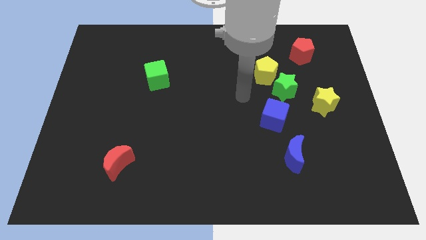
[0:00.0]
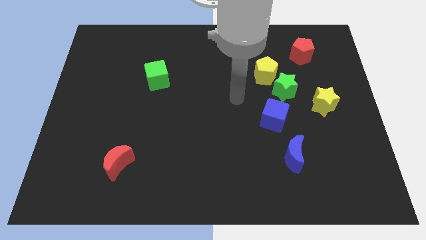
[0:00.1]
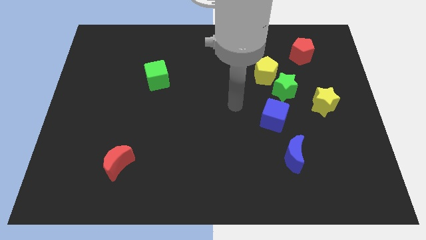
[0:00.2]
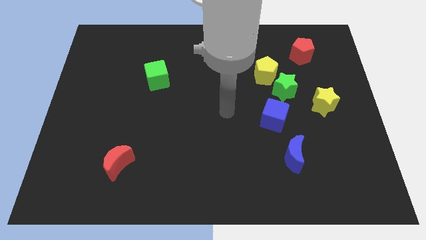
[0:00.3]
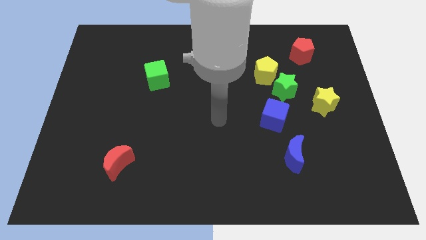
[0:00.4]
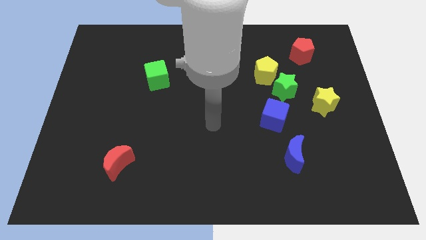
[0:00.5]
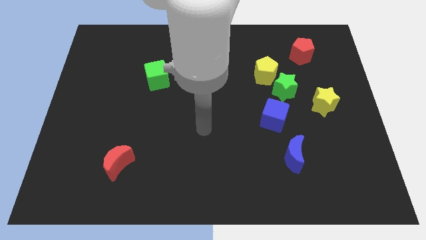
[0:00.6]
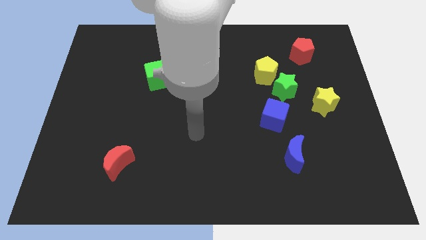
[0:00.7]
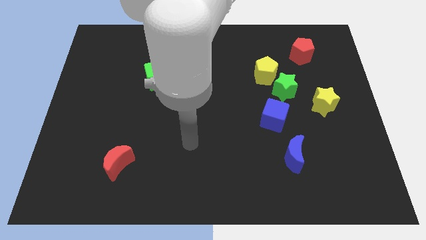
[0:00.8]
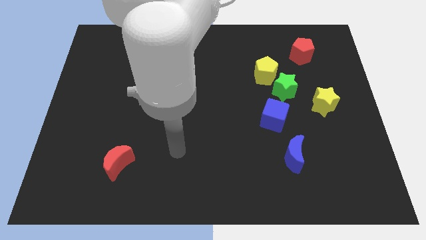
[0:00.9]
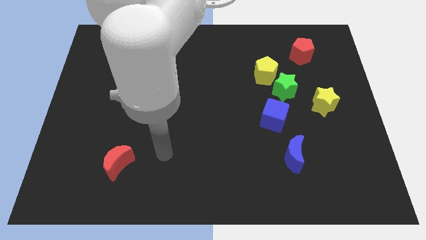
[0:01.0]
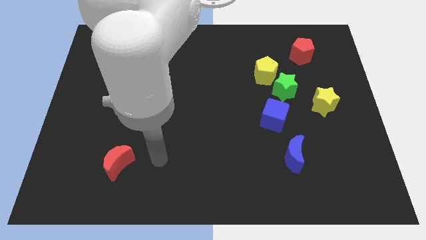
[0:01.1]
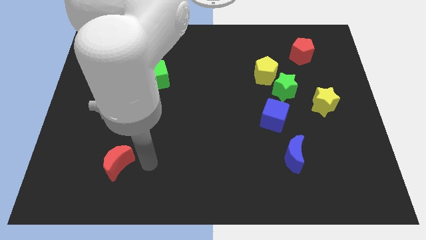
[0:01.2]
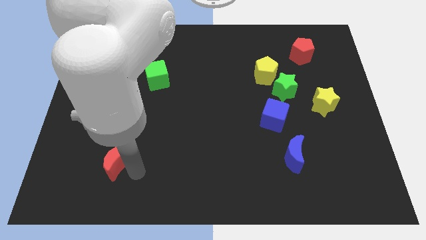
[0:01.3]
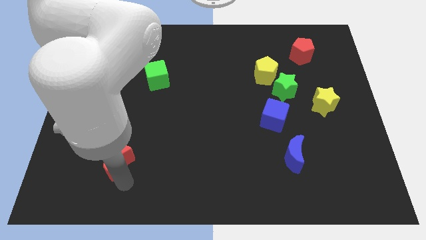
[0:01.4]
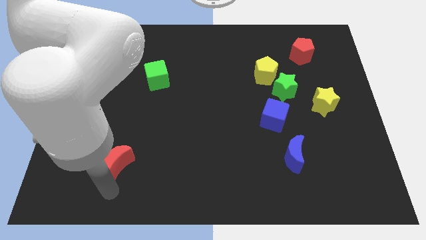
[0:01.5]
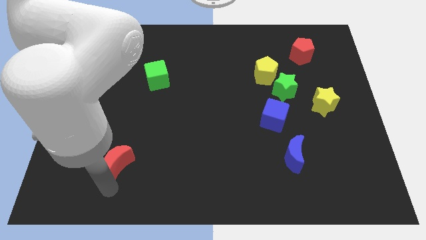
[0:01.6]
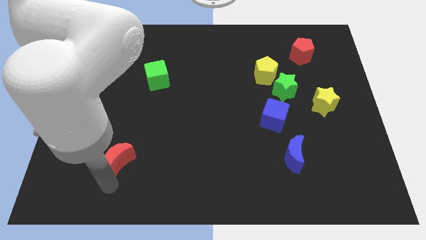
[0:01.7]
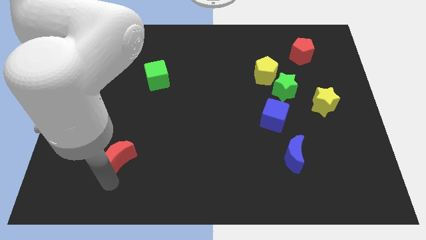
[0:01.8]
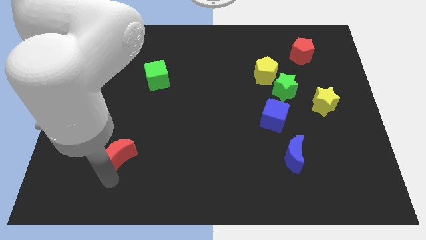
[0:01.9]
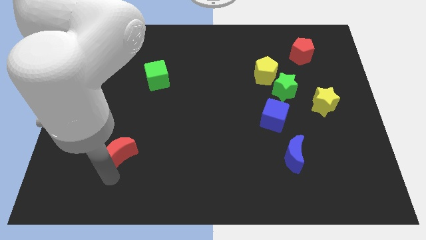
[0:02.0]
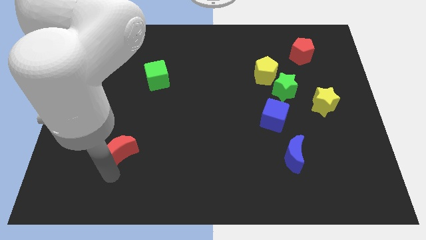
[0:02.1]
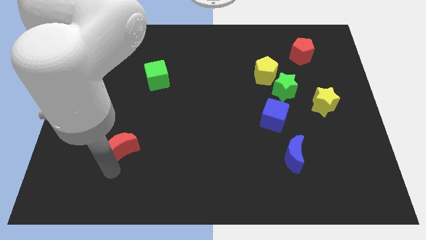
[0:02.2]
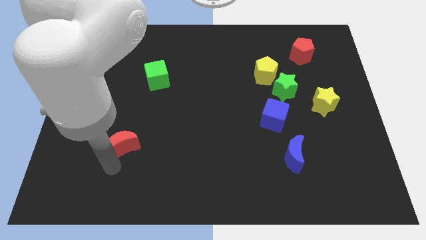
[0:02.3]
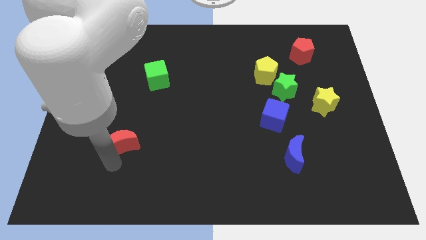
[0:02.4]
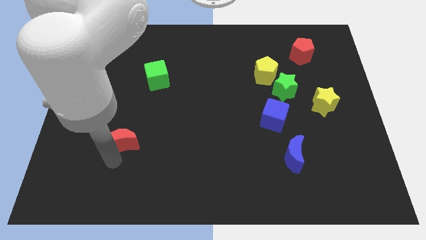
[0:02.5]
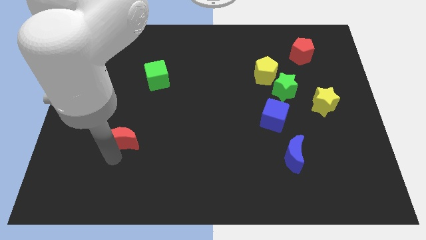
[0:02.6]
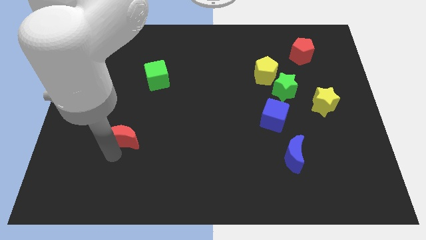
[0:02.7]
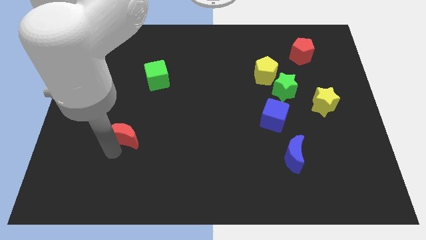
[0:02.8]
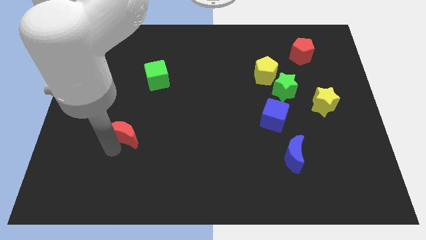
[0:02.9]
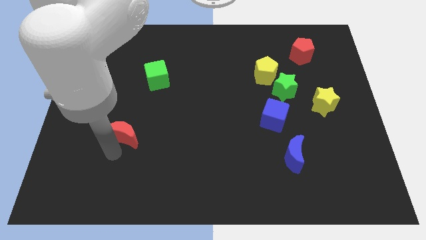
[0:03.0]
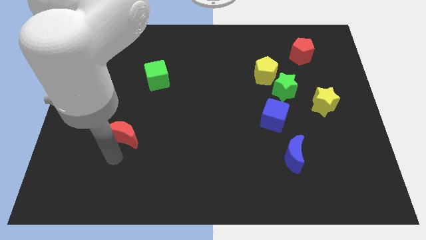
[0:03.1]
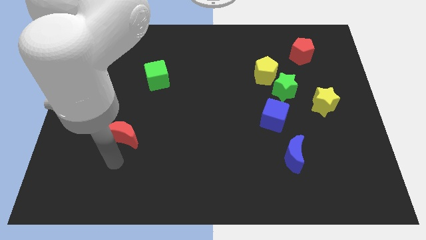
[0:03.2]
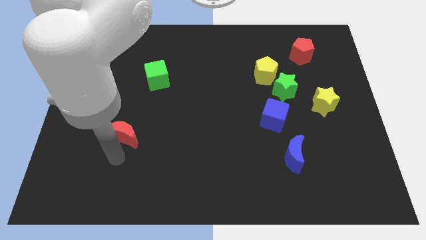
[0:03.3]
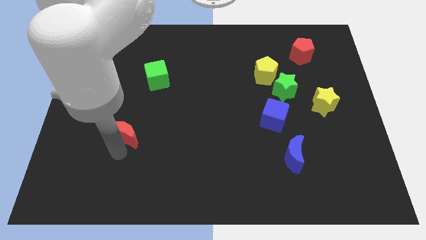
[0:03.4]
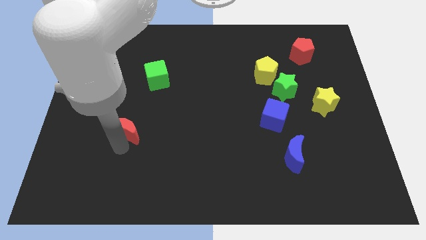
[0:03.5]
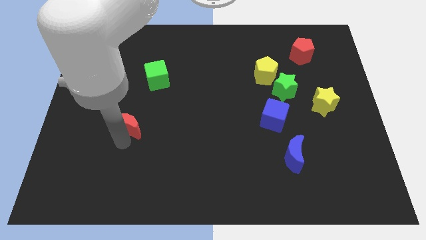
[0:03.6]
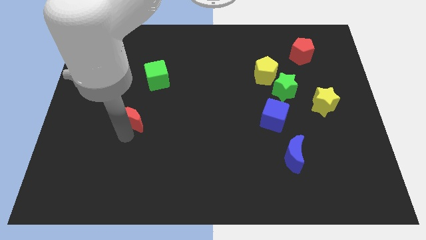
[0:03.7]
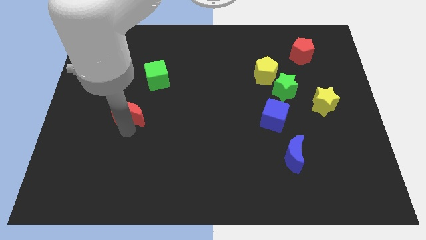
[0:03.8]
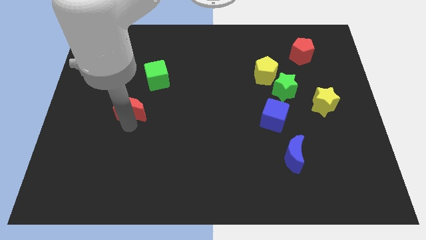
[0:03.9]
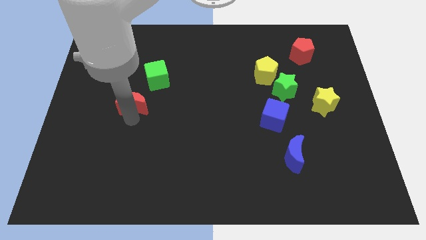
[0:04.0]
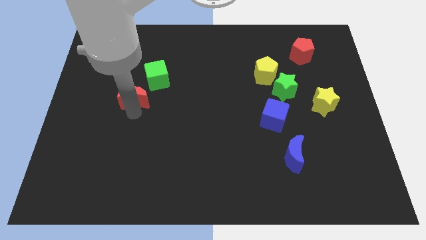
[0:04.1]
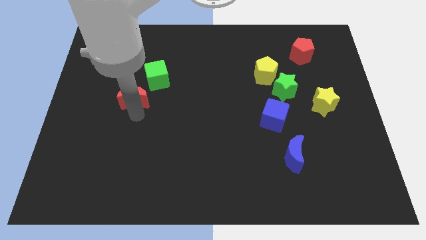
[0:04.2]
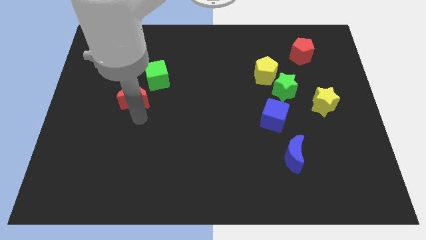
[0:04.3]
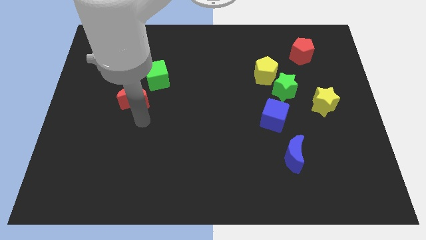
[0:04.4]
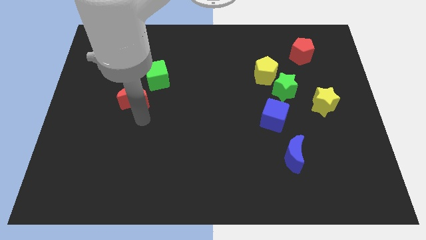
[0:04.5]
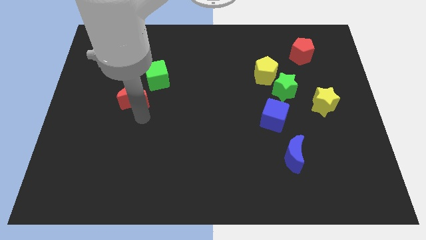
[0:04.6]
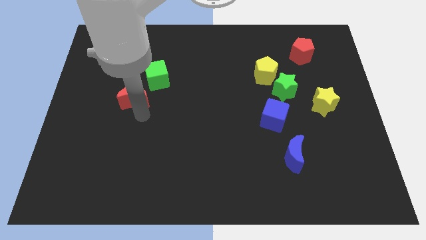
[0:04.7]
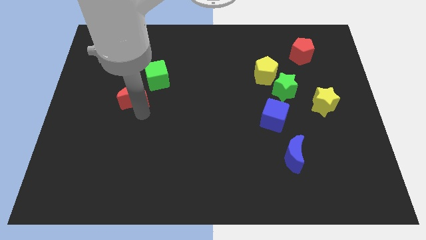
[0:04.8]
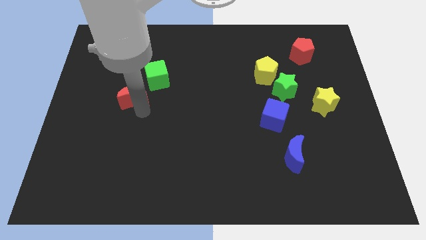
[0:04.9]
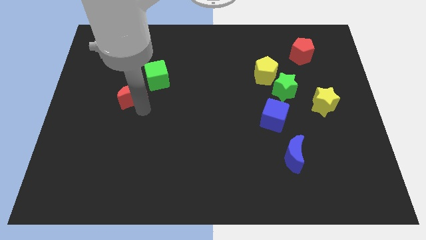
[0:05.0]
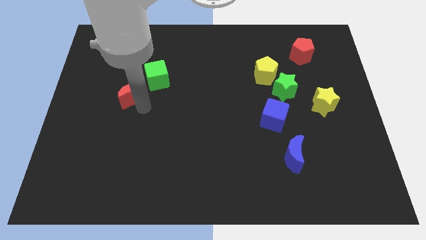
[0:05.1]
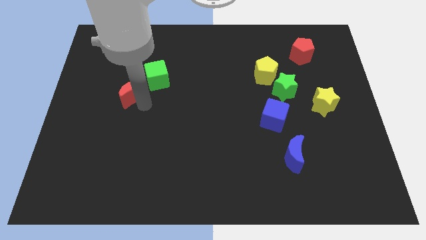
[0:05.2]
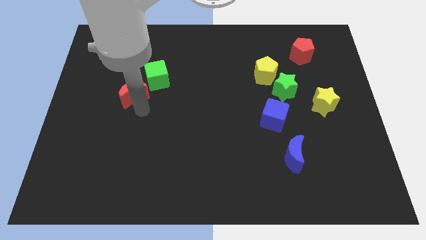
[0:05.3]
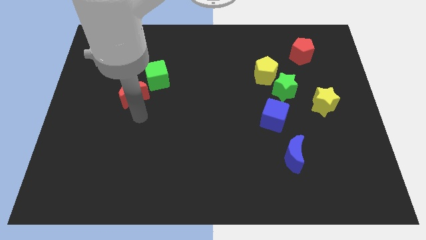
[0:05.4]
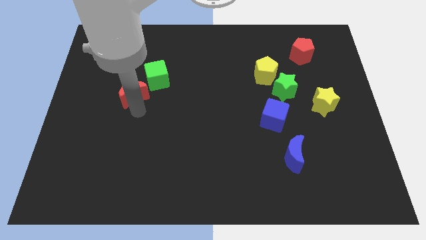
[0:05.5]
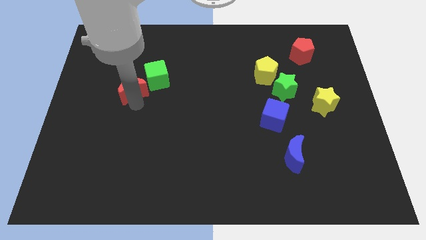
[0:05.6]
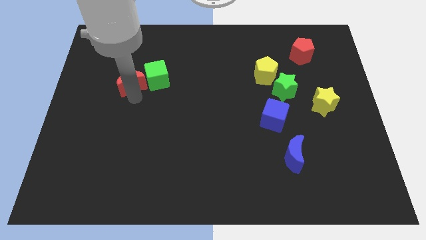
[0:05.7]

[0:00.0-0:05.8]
move the red moon upwards

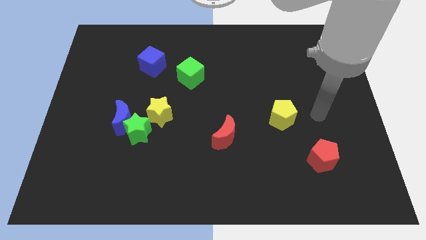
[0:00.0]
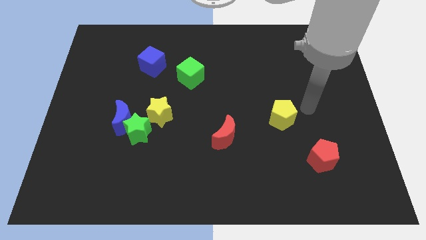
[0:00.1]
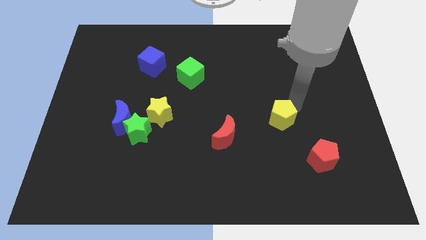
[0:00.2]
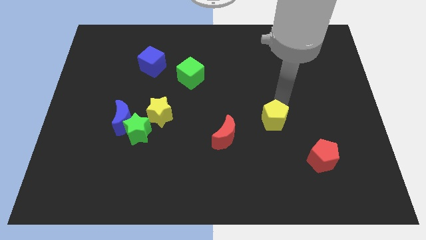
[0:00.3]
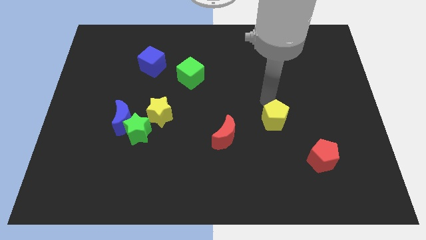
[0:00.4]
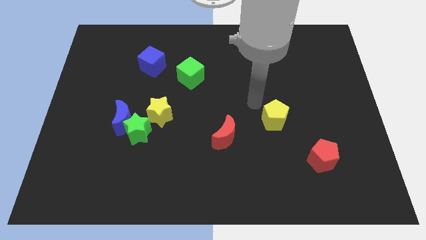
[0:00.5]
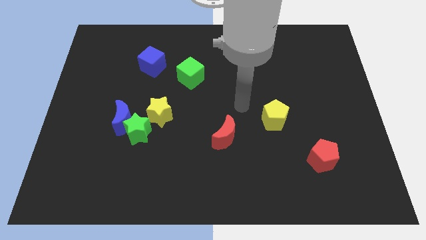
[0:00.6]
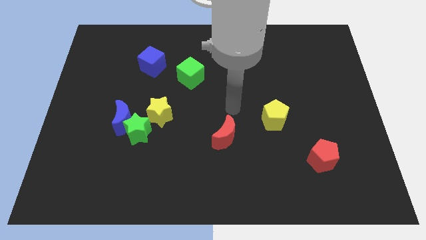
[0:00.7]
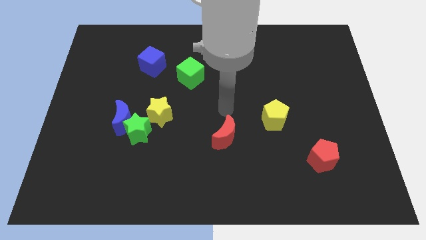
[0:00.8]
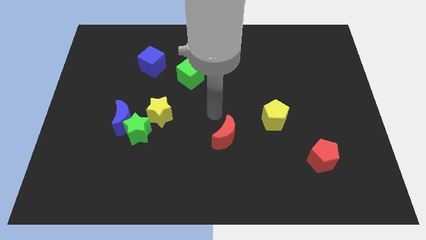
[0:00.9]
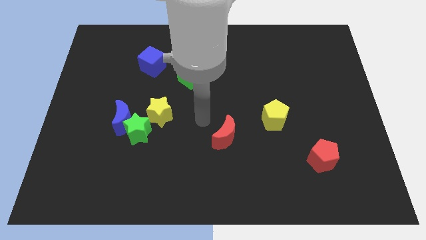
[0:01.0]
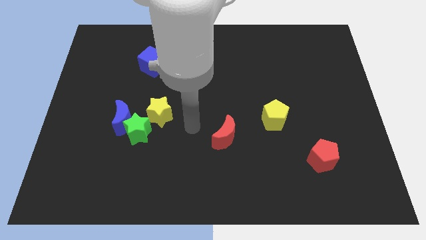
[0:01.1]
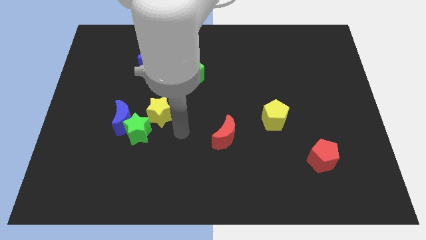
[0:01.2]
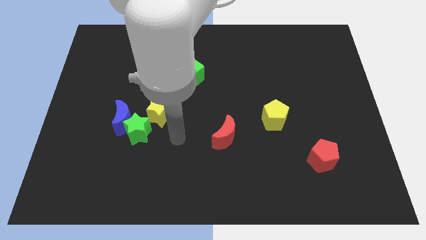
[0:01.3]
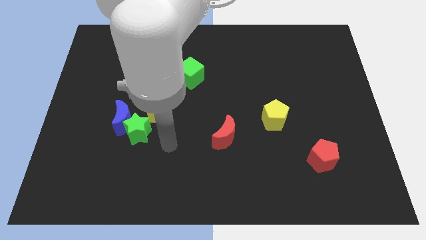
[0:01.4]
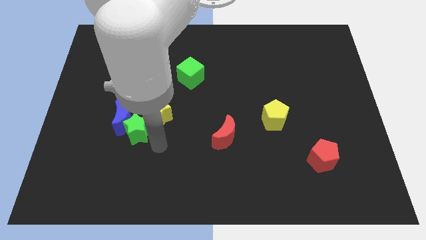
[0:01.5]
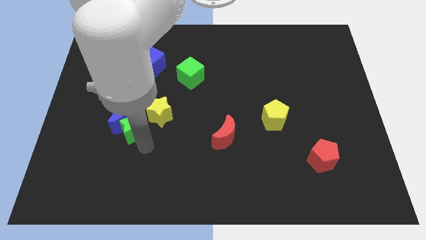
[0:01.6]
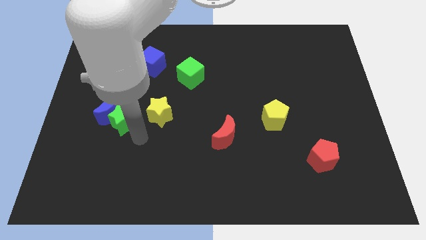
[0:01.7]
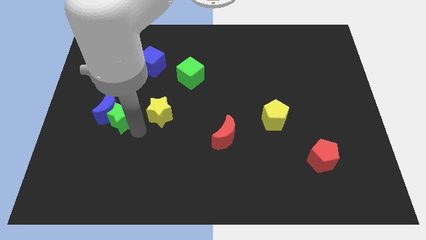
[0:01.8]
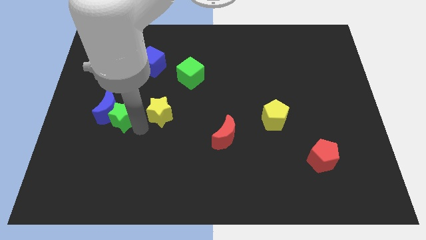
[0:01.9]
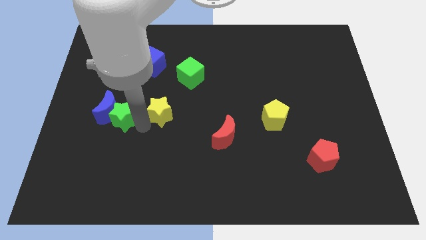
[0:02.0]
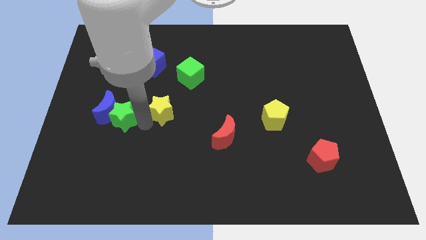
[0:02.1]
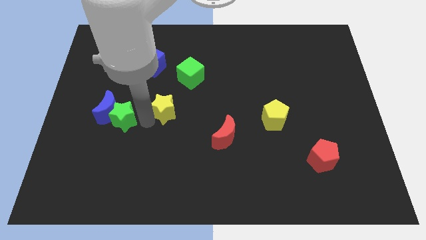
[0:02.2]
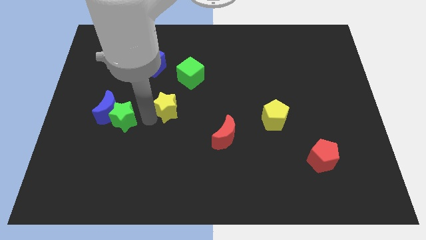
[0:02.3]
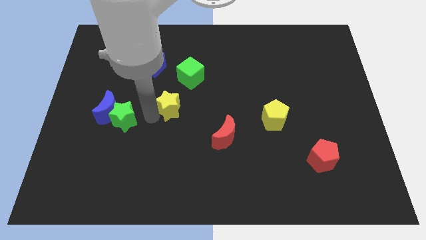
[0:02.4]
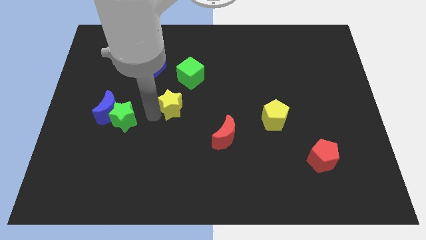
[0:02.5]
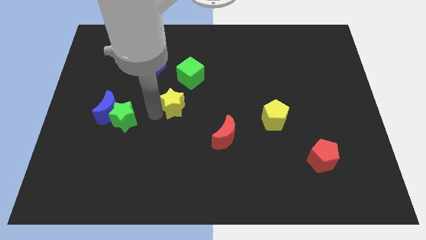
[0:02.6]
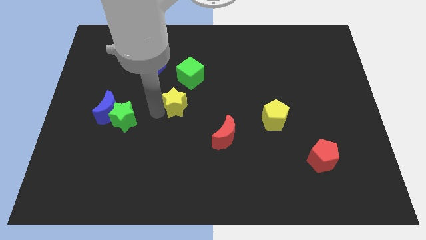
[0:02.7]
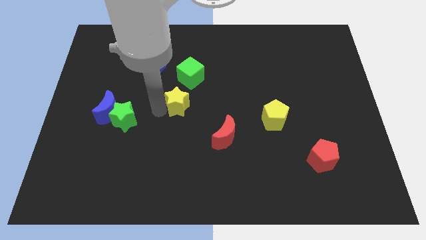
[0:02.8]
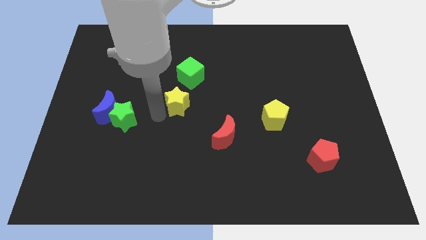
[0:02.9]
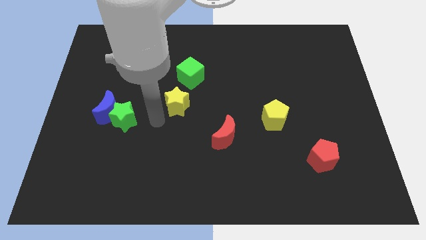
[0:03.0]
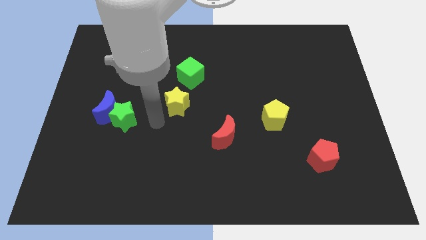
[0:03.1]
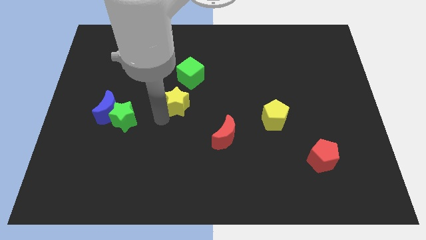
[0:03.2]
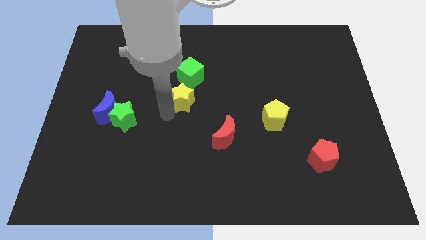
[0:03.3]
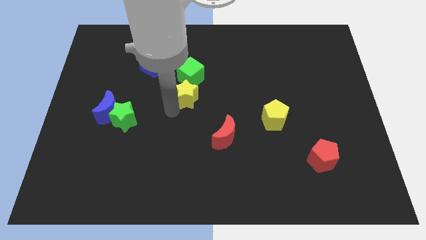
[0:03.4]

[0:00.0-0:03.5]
slide the yellow star a bit up and right
